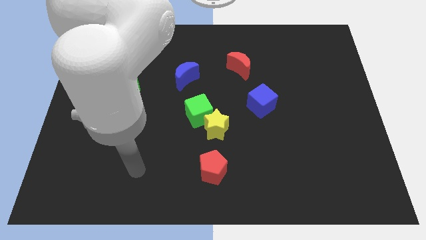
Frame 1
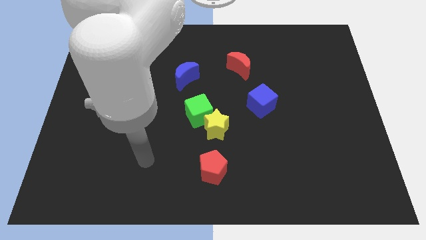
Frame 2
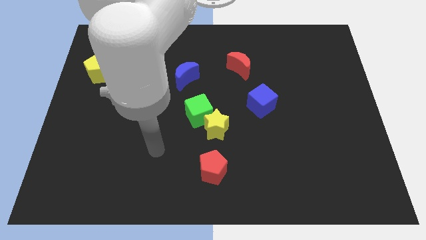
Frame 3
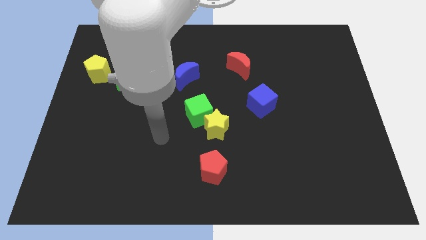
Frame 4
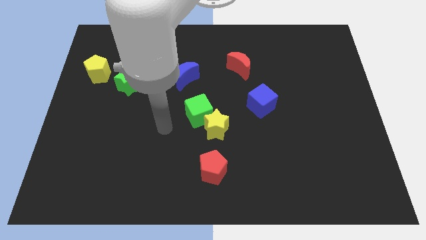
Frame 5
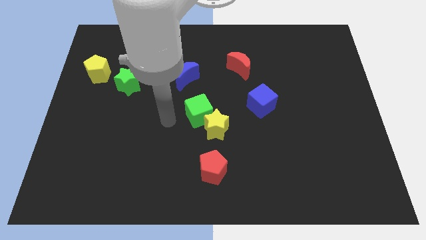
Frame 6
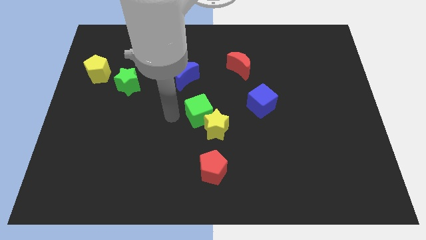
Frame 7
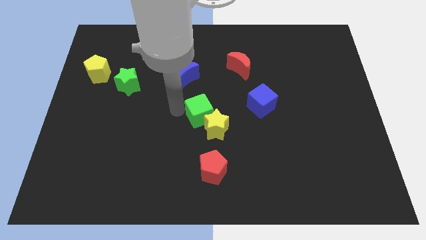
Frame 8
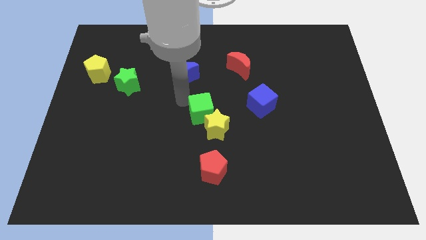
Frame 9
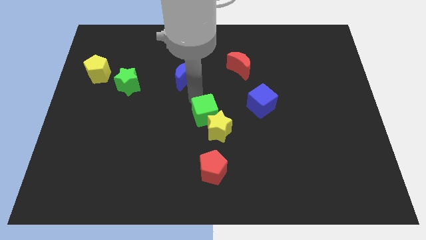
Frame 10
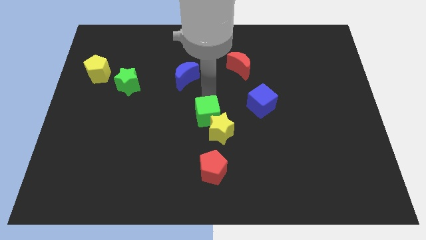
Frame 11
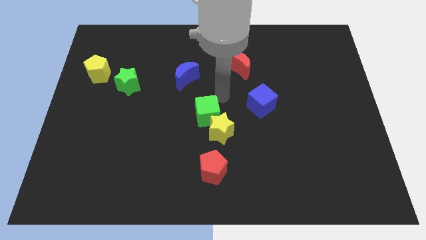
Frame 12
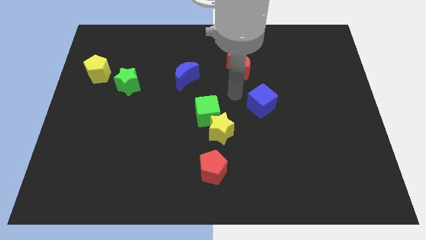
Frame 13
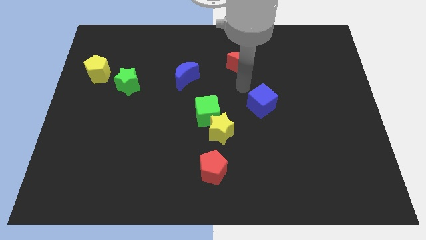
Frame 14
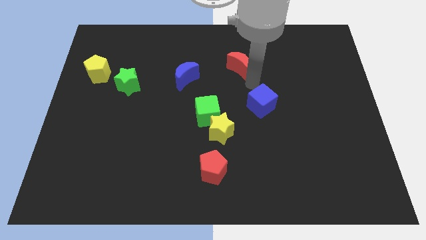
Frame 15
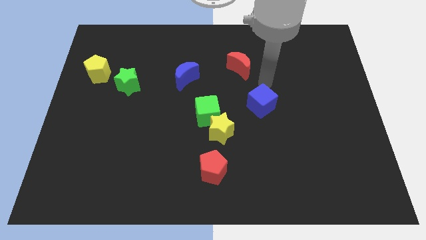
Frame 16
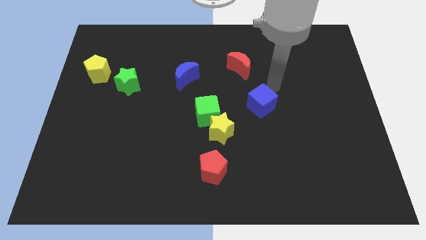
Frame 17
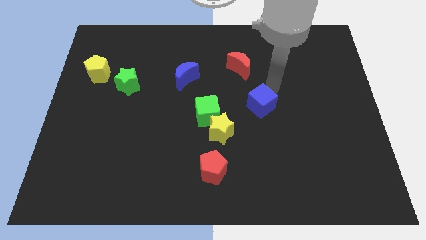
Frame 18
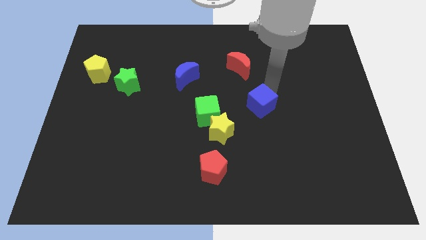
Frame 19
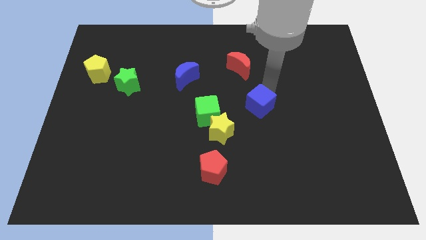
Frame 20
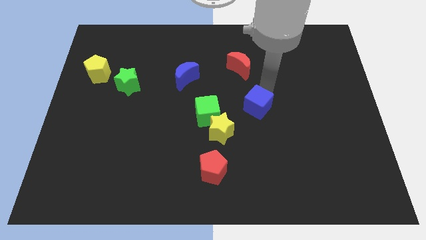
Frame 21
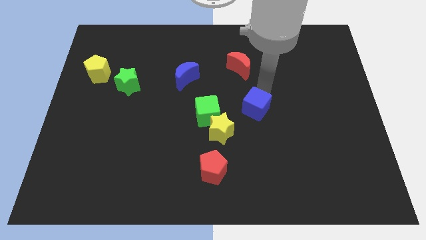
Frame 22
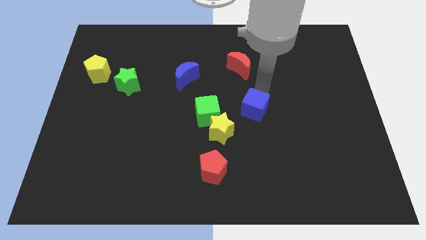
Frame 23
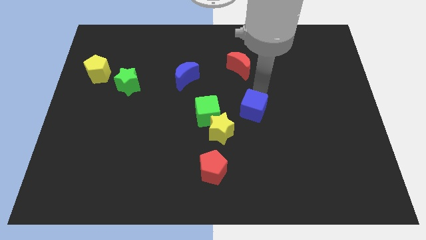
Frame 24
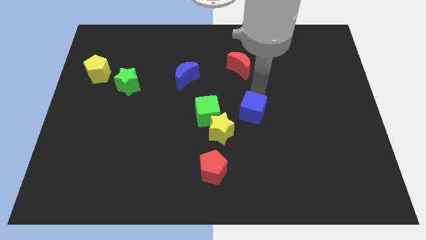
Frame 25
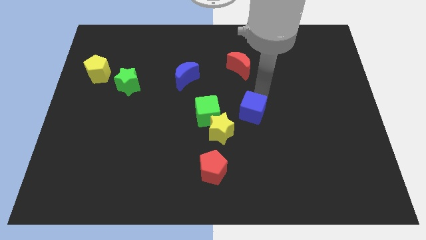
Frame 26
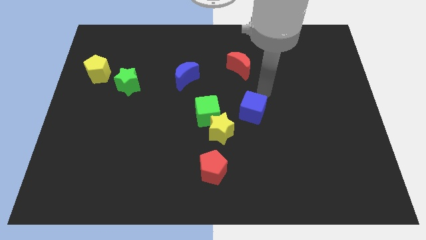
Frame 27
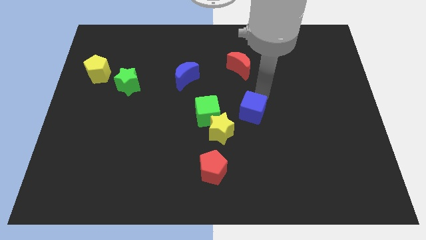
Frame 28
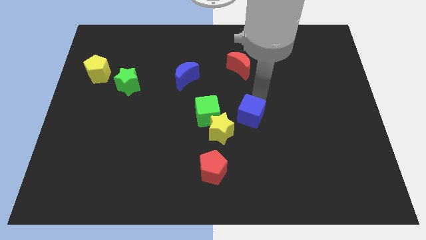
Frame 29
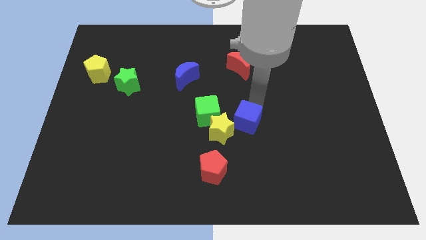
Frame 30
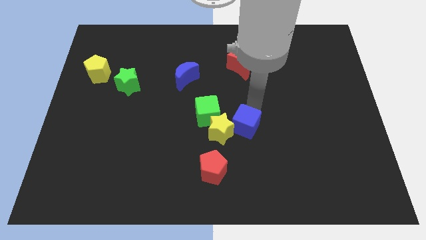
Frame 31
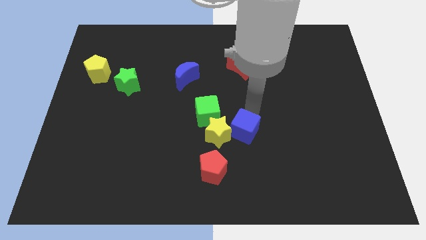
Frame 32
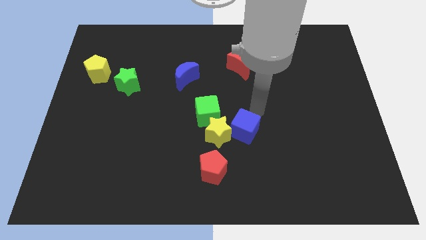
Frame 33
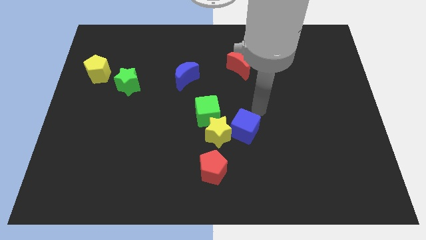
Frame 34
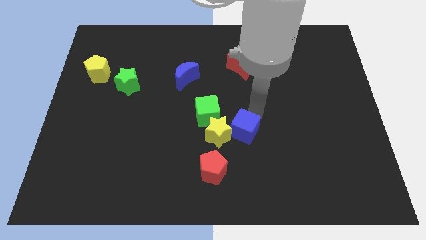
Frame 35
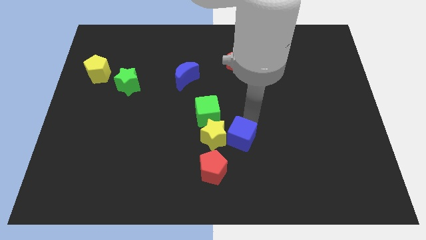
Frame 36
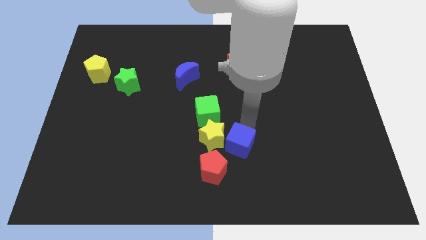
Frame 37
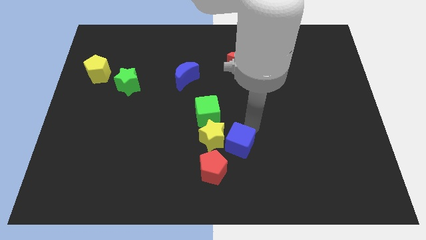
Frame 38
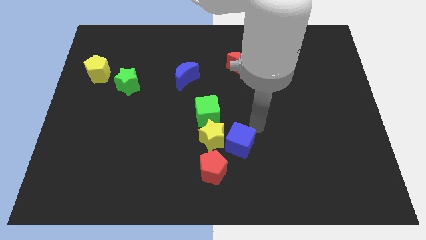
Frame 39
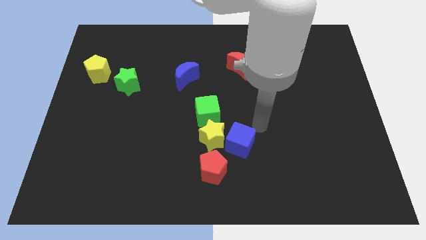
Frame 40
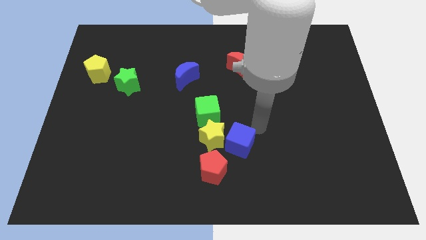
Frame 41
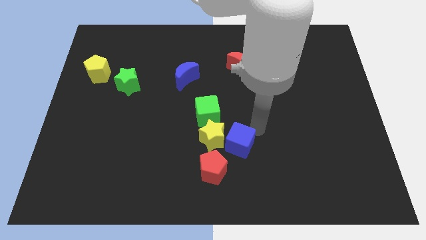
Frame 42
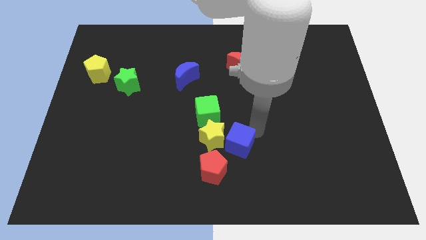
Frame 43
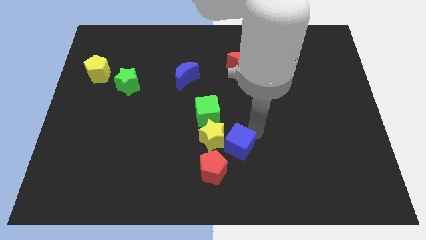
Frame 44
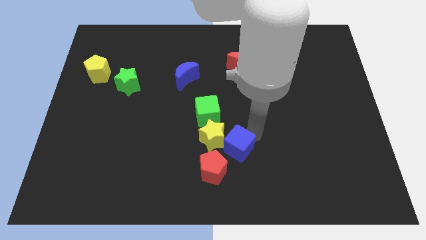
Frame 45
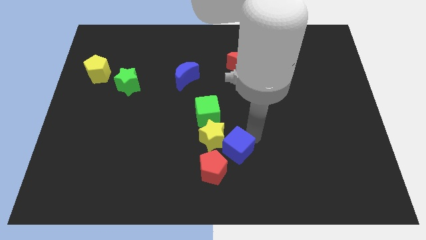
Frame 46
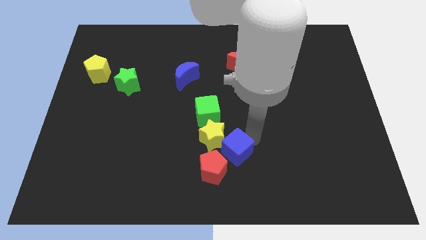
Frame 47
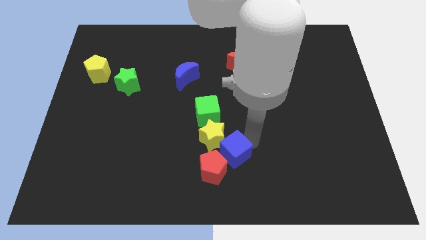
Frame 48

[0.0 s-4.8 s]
push the blue cube close to the red pentagon

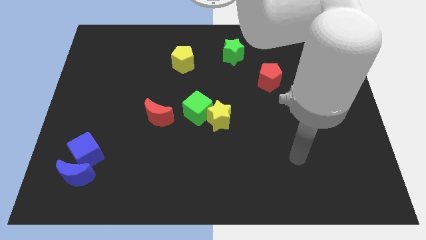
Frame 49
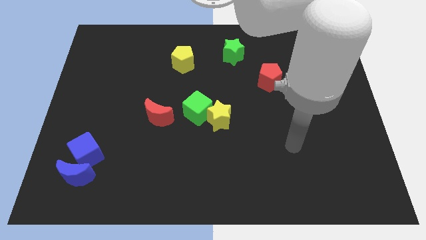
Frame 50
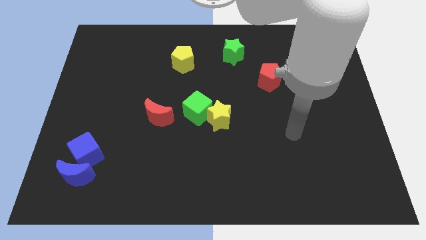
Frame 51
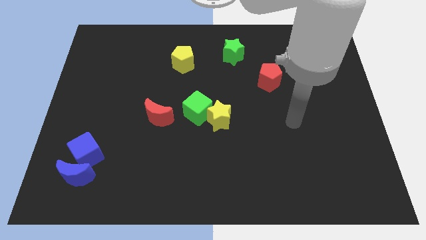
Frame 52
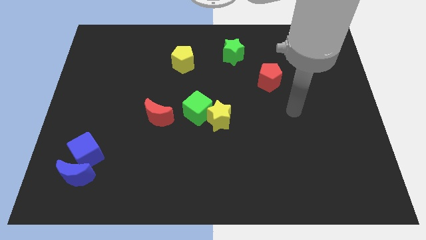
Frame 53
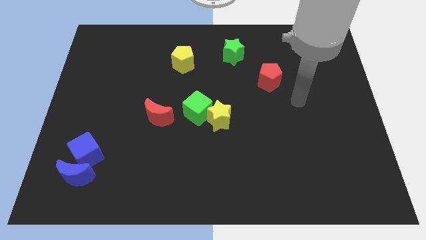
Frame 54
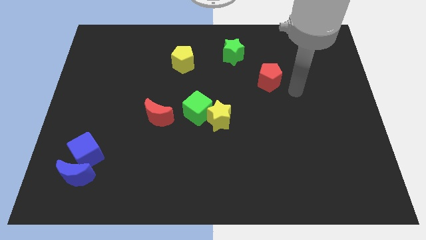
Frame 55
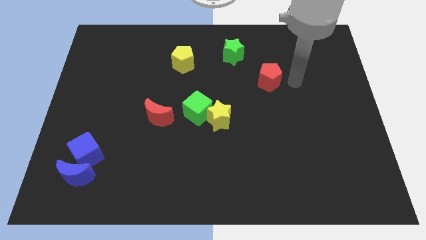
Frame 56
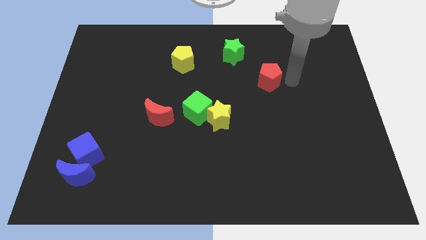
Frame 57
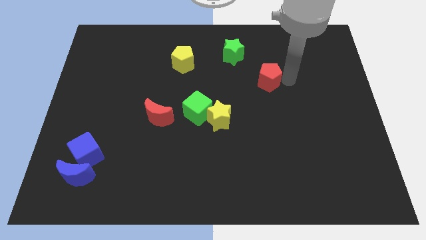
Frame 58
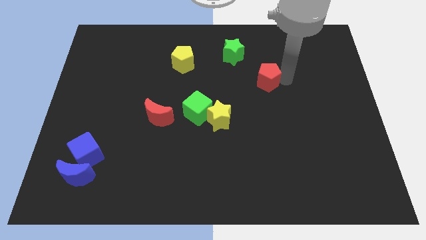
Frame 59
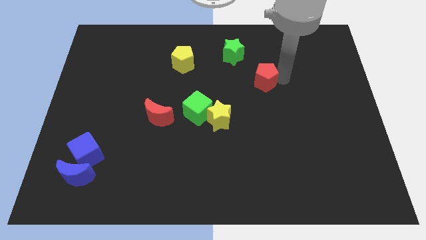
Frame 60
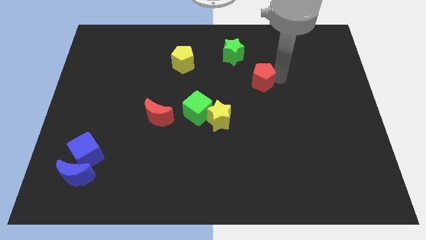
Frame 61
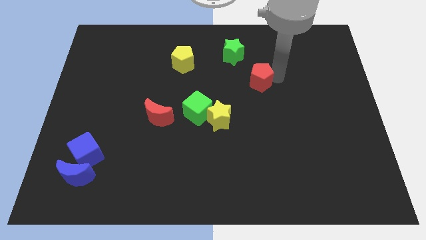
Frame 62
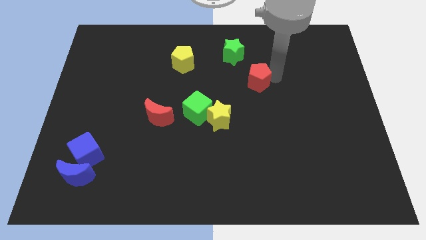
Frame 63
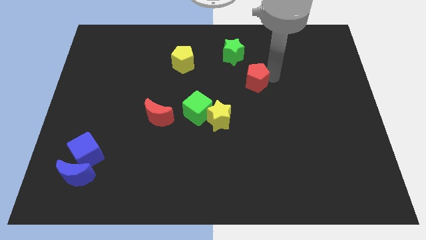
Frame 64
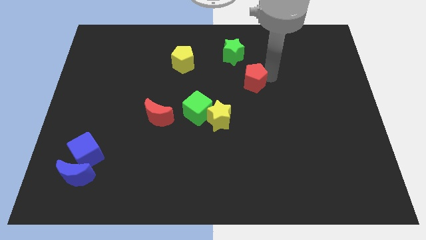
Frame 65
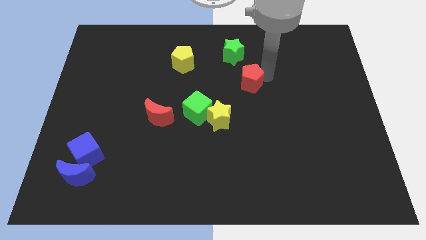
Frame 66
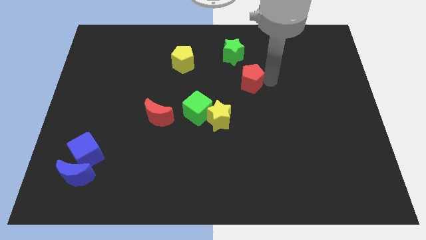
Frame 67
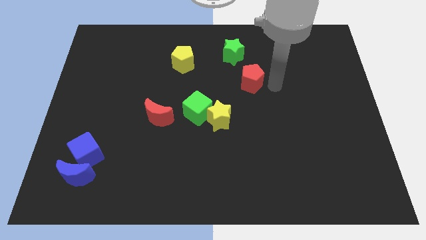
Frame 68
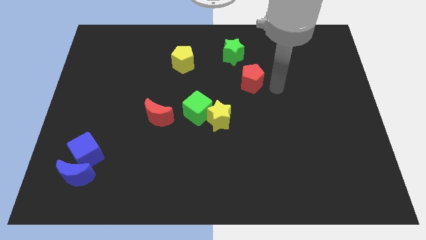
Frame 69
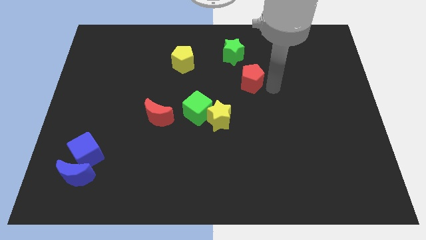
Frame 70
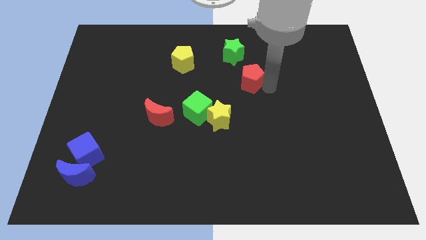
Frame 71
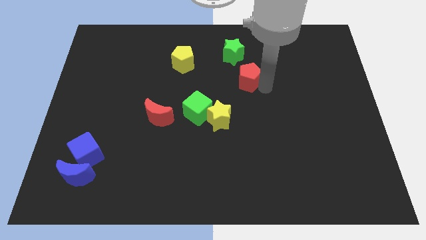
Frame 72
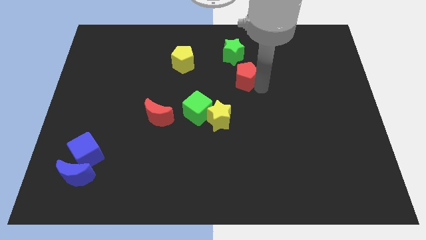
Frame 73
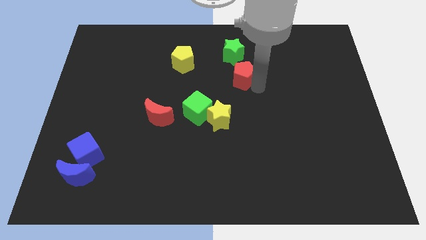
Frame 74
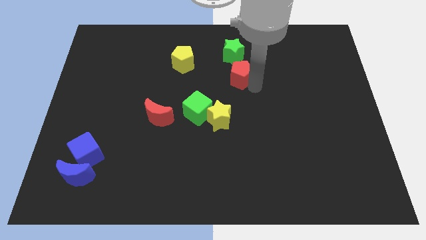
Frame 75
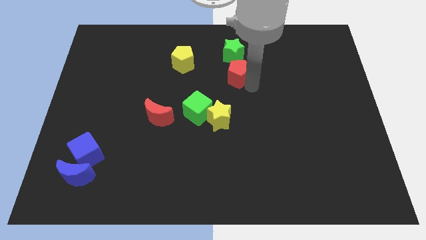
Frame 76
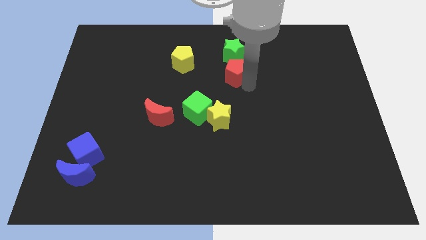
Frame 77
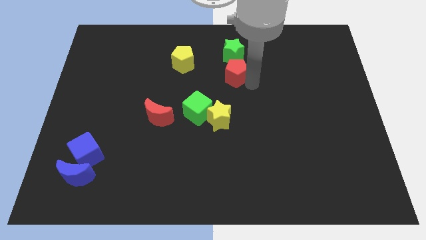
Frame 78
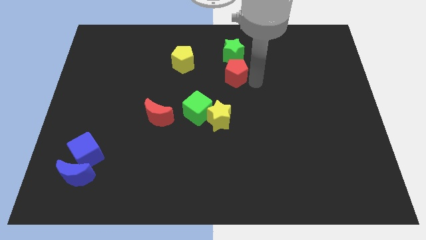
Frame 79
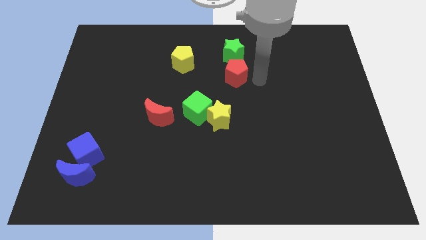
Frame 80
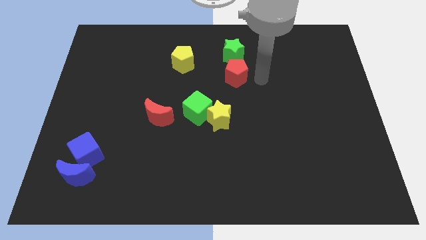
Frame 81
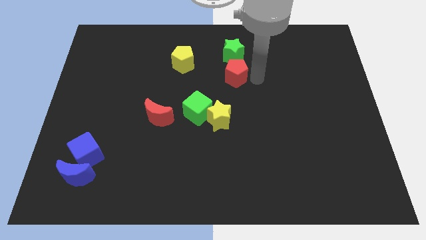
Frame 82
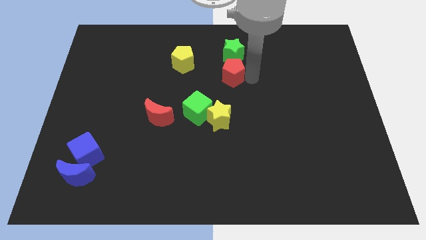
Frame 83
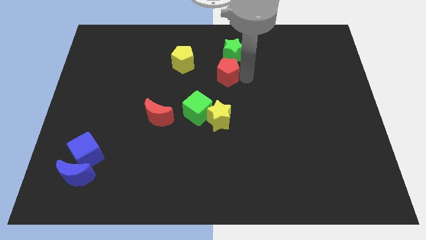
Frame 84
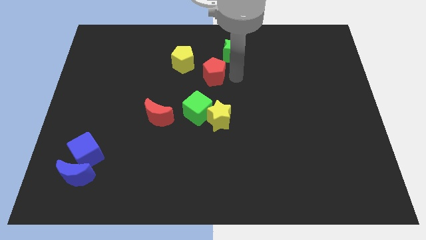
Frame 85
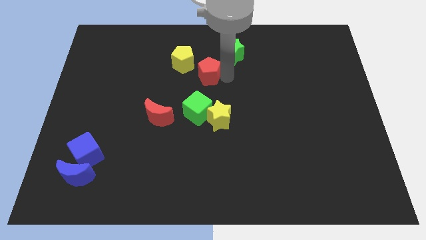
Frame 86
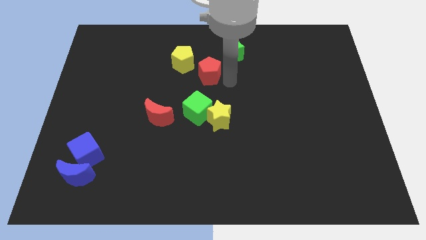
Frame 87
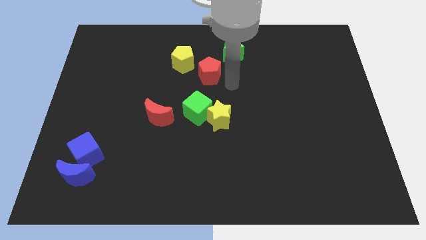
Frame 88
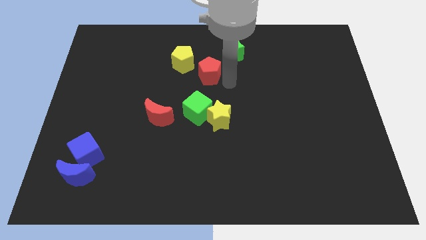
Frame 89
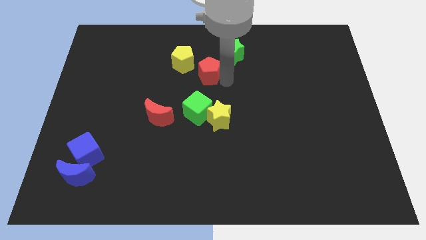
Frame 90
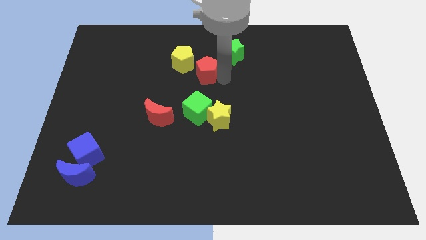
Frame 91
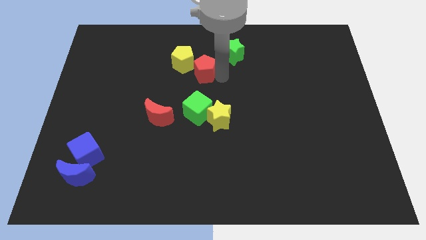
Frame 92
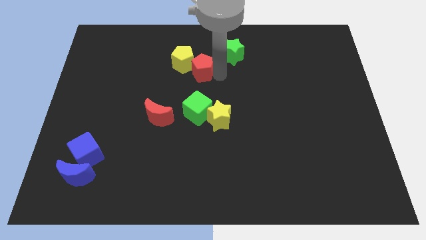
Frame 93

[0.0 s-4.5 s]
push the red pentagon to the yellow pentagon
